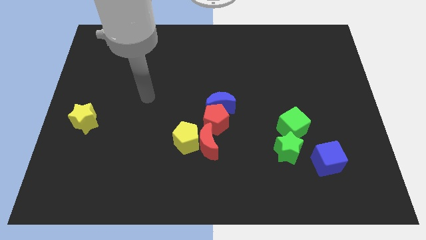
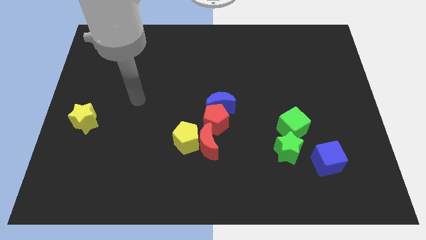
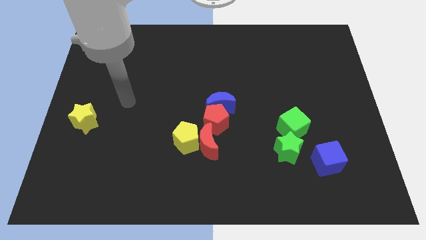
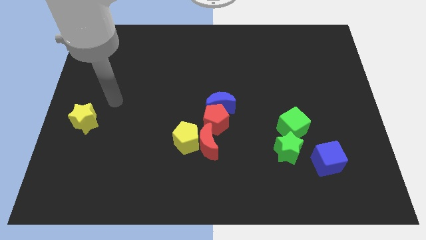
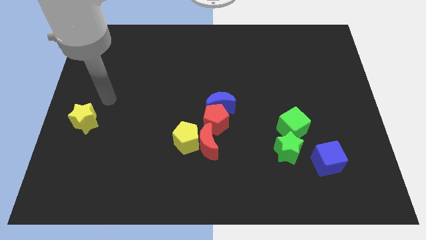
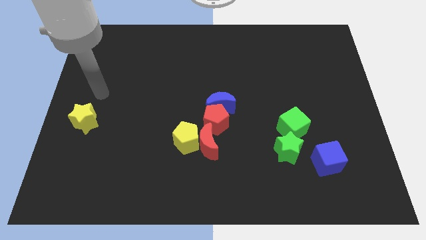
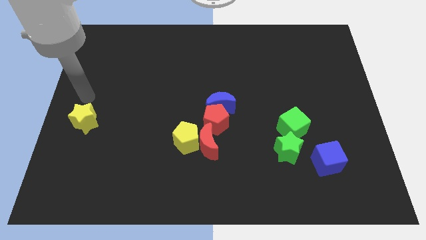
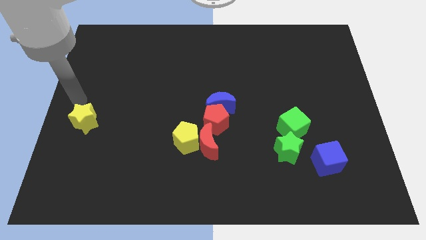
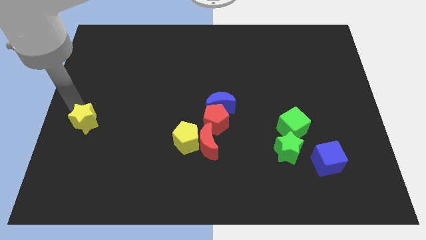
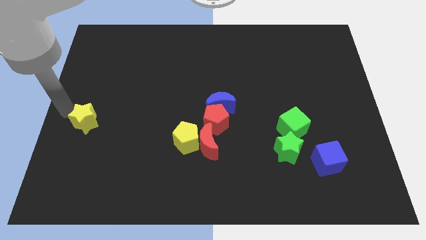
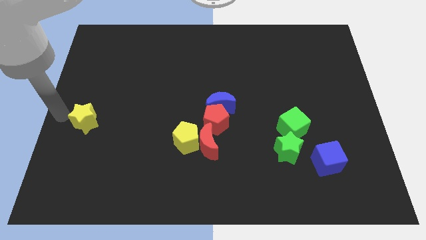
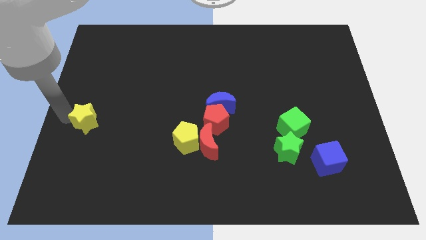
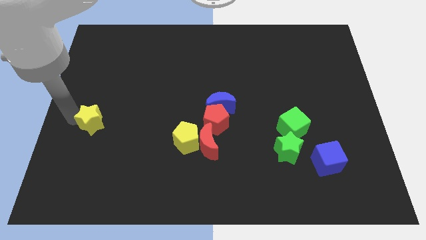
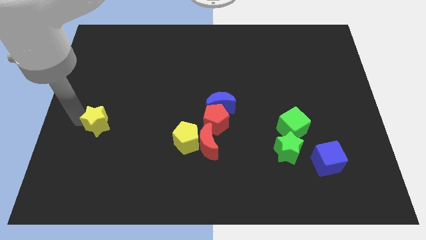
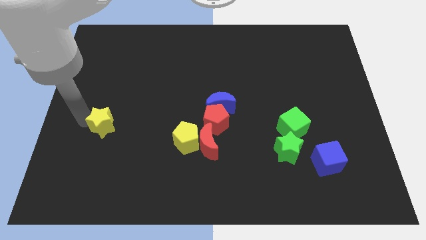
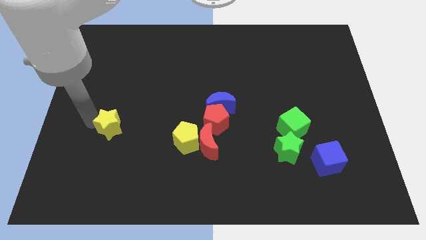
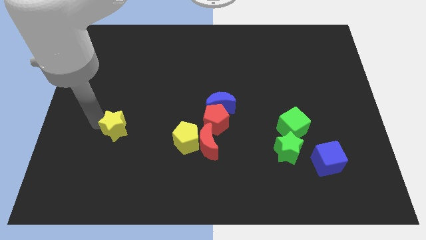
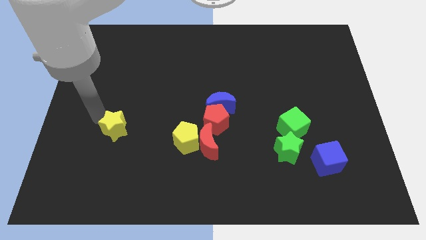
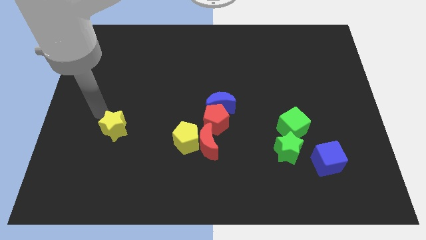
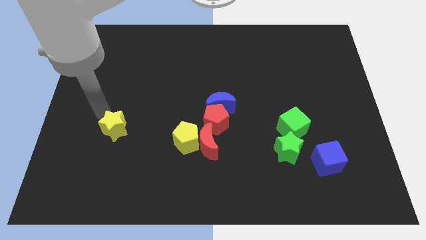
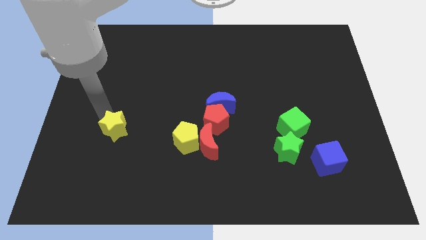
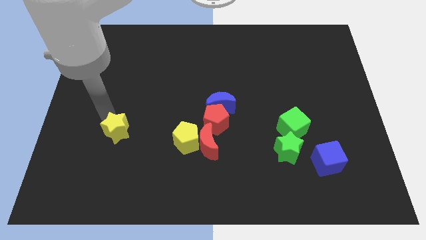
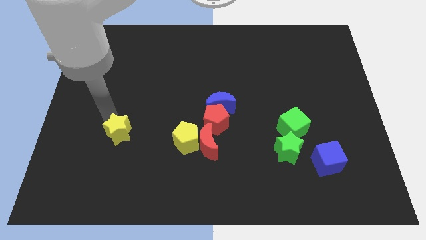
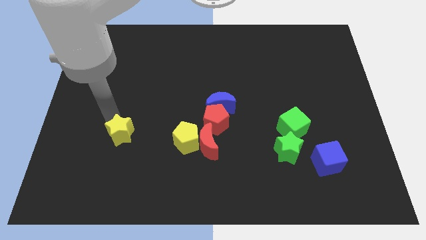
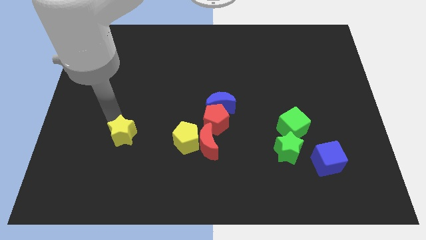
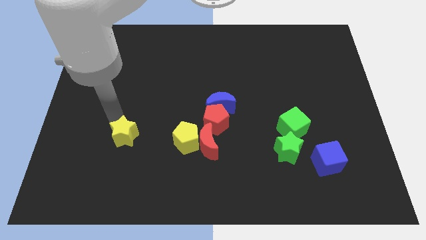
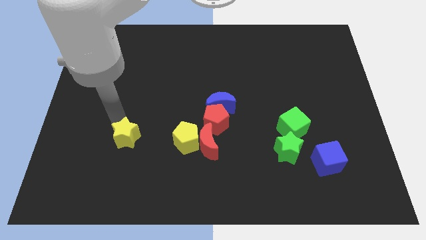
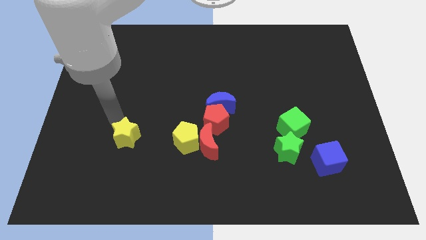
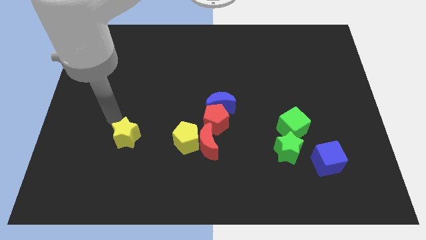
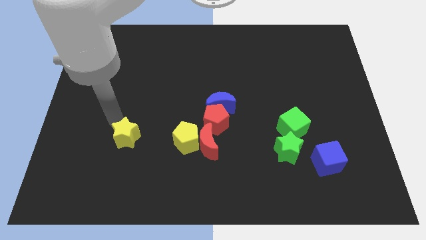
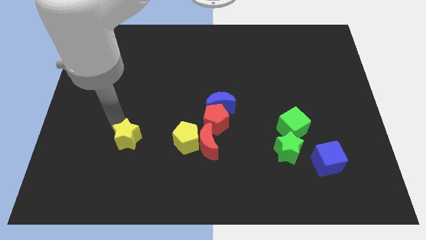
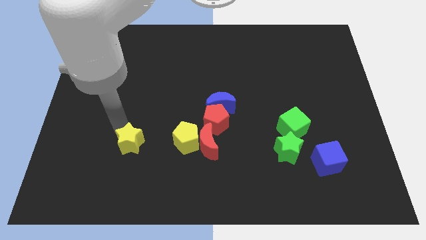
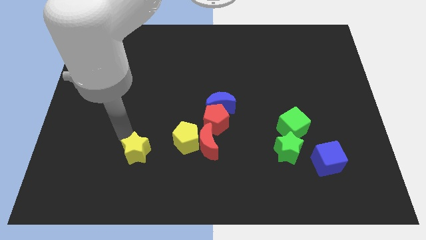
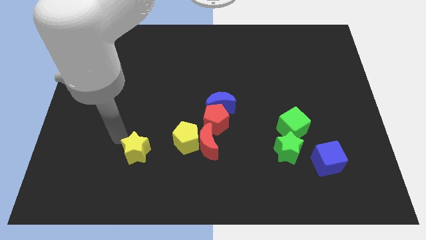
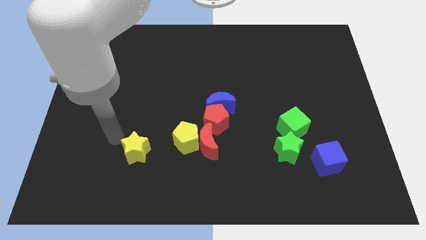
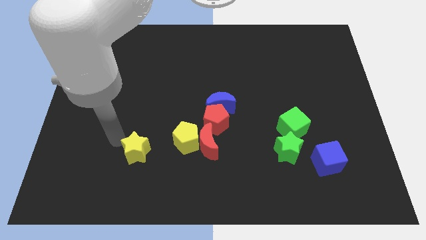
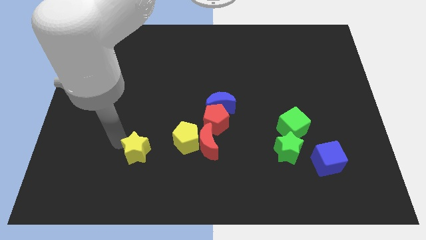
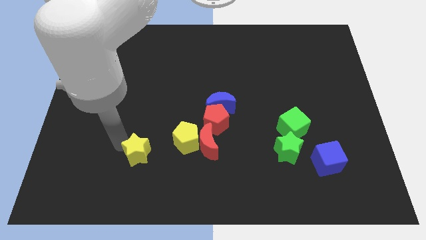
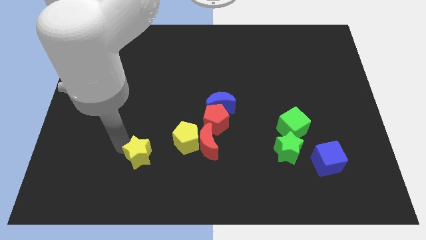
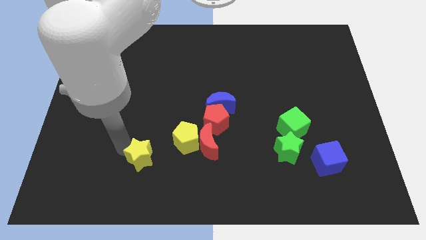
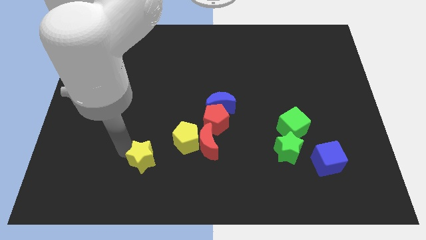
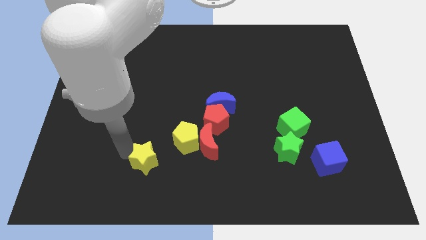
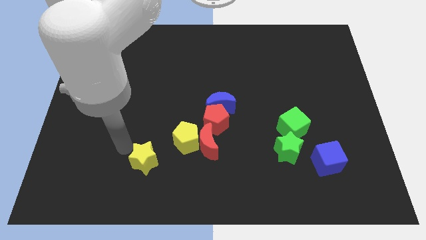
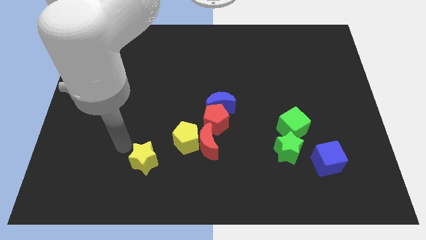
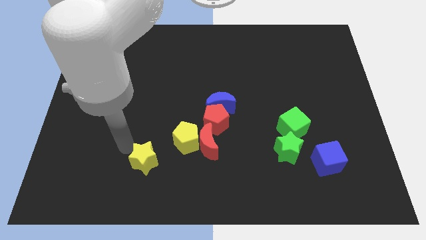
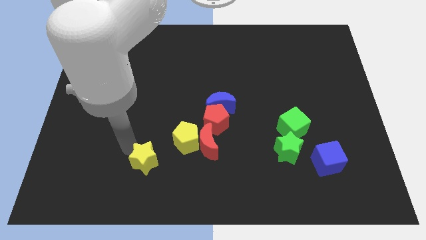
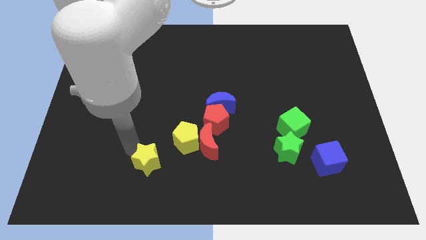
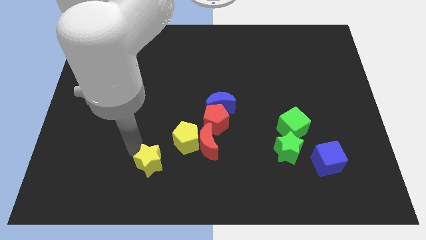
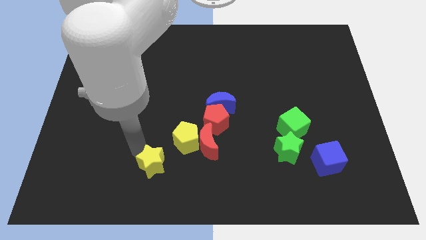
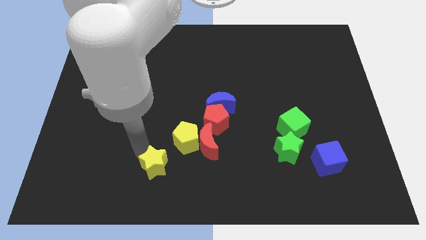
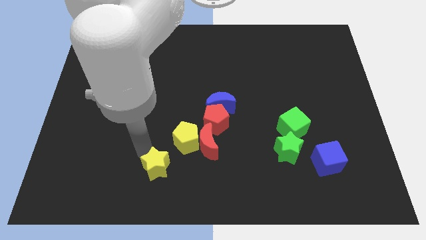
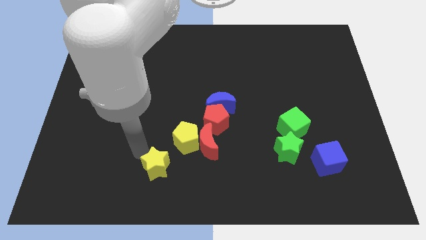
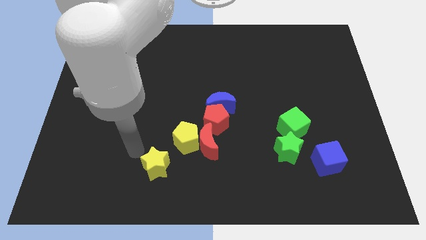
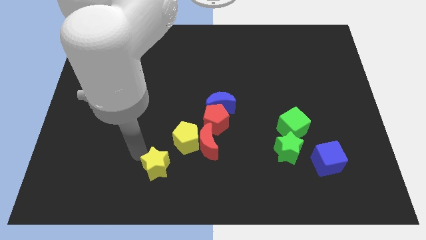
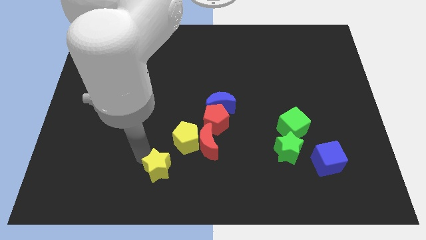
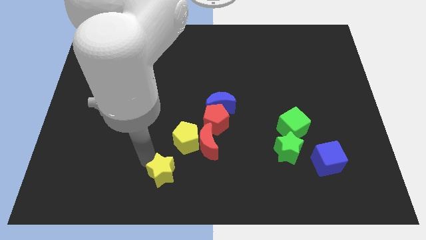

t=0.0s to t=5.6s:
slide the yellow star to the bottom

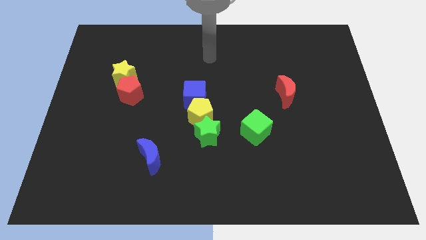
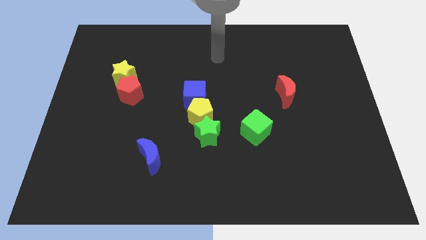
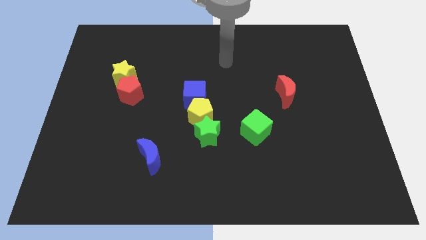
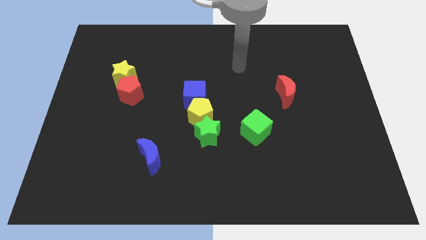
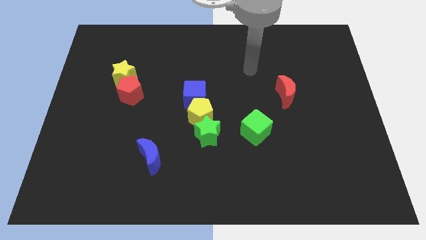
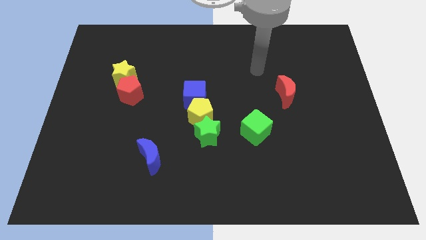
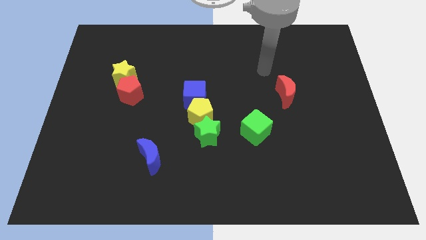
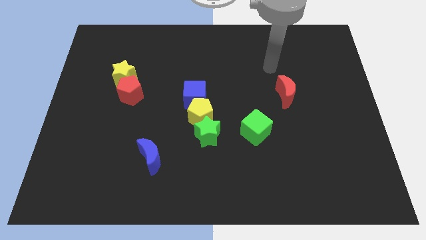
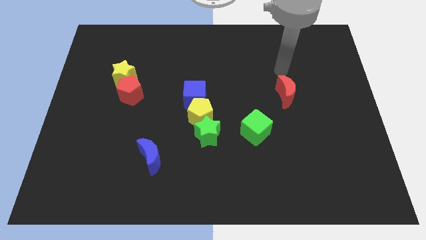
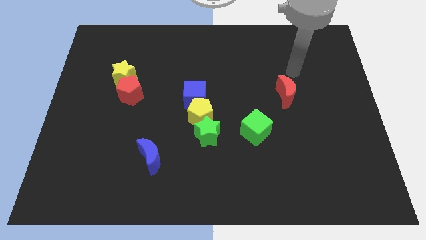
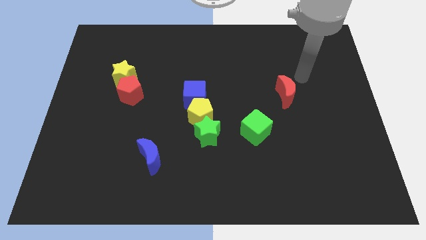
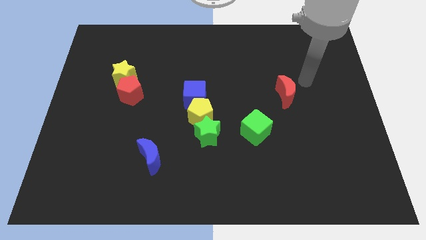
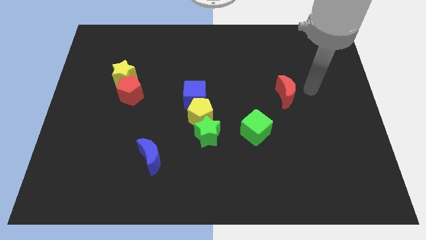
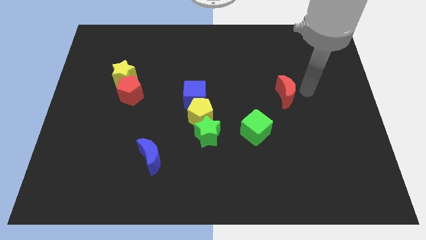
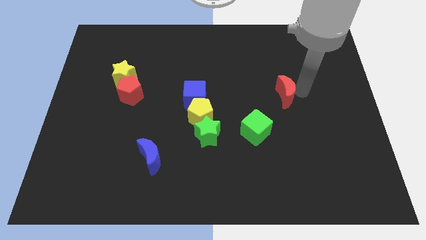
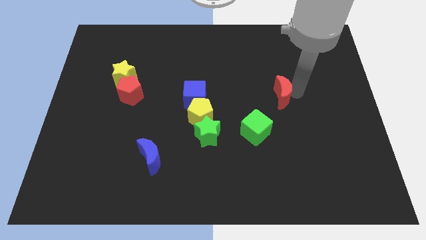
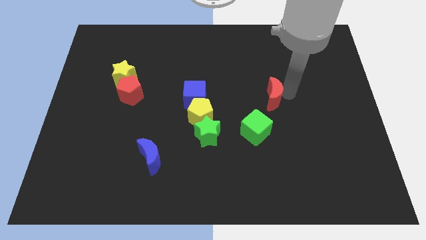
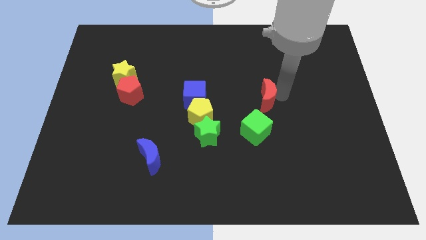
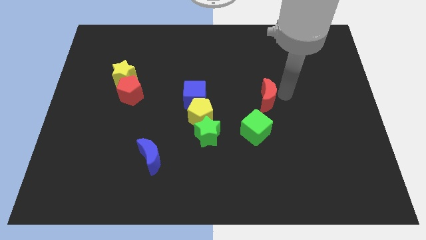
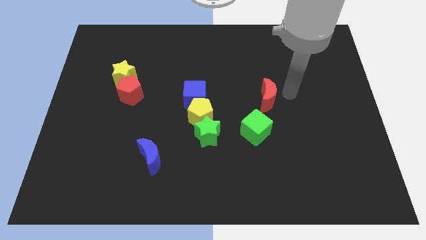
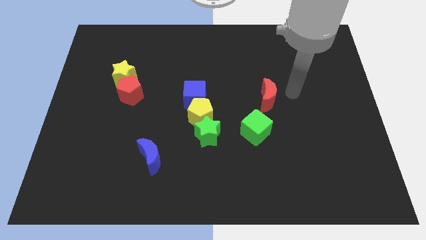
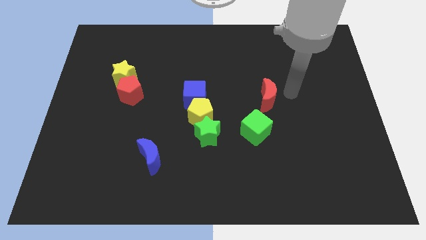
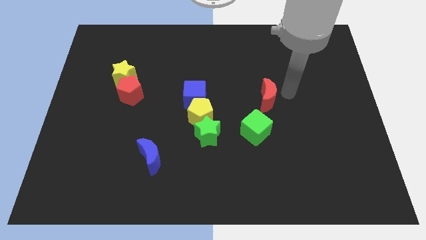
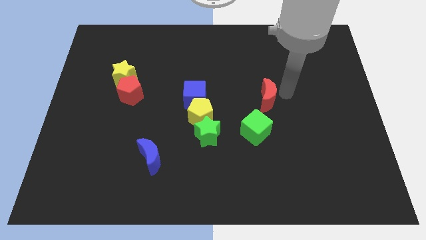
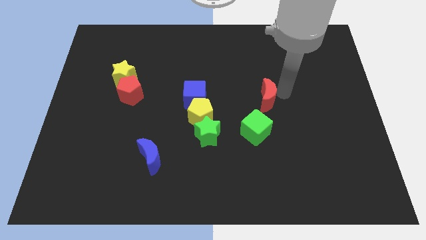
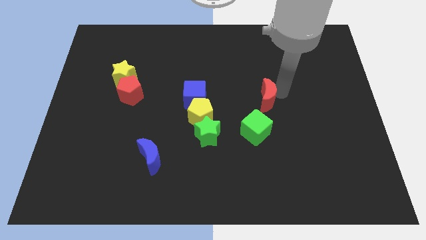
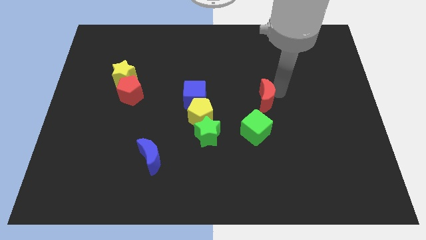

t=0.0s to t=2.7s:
slide the red moon to the center of the board
